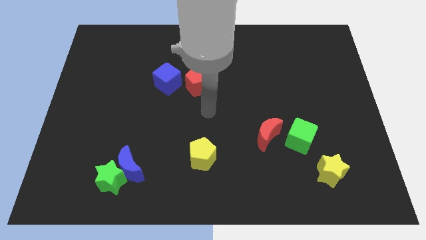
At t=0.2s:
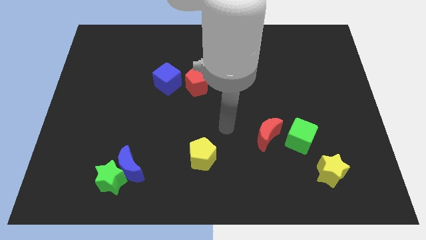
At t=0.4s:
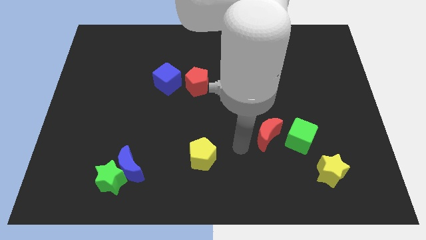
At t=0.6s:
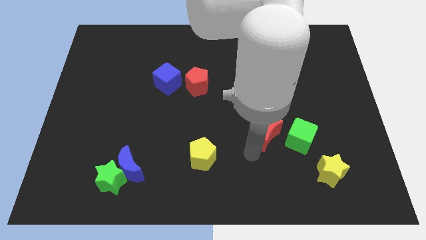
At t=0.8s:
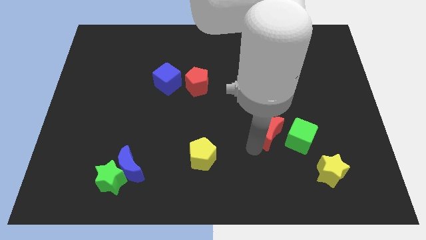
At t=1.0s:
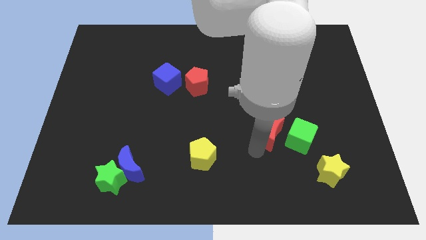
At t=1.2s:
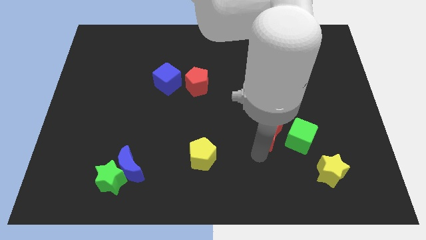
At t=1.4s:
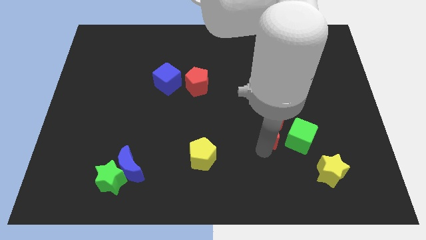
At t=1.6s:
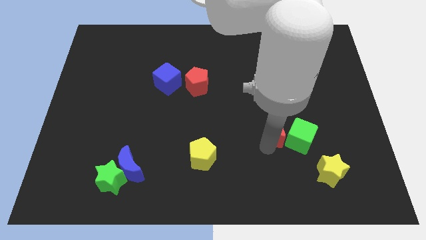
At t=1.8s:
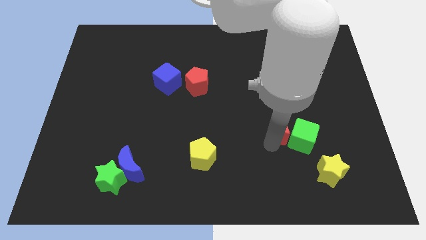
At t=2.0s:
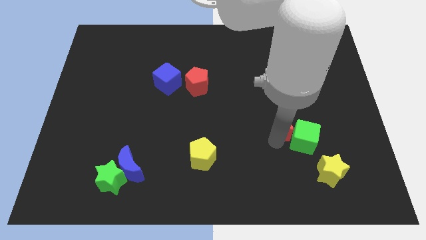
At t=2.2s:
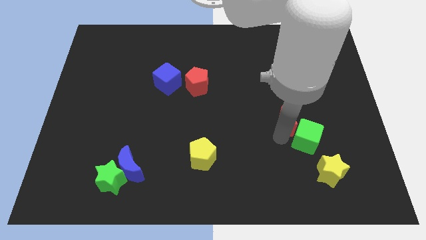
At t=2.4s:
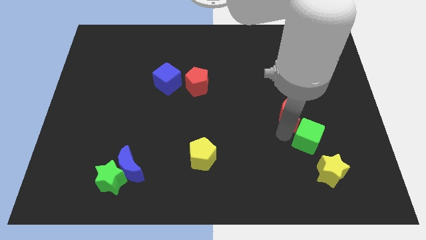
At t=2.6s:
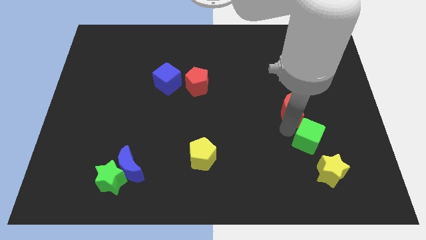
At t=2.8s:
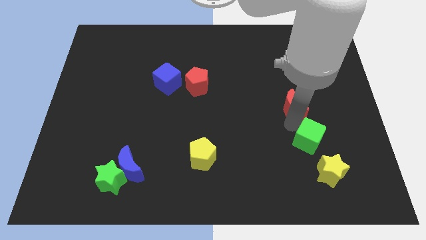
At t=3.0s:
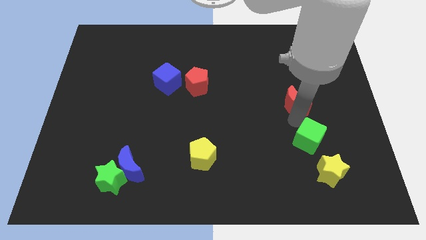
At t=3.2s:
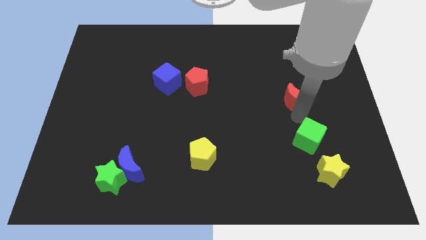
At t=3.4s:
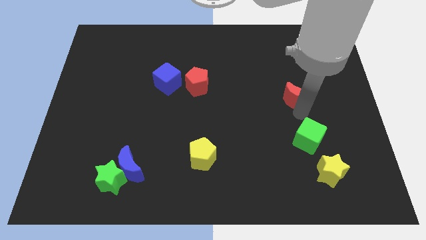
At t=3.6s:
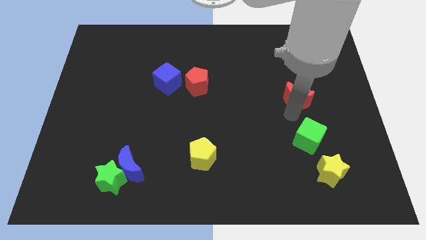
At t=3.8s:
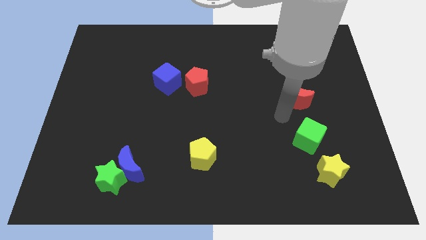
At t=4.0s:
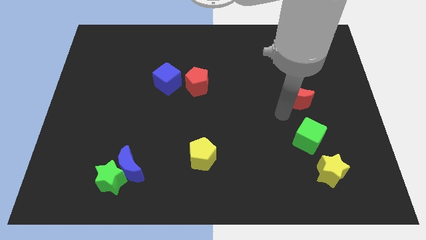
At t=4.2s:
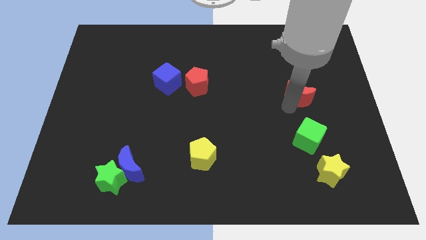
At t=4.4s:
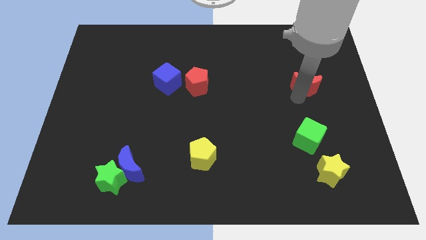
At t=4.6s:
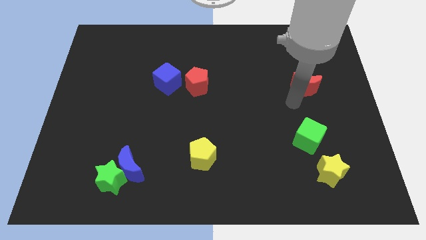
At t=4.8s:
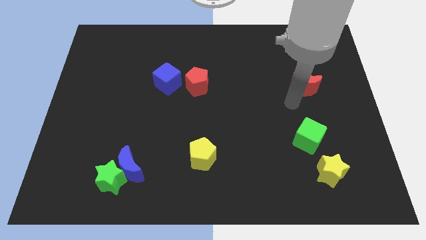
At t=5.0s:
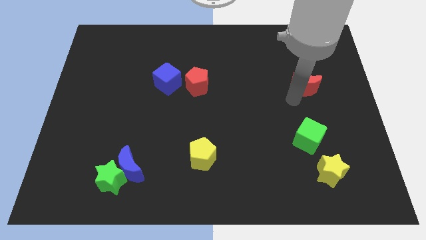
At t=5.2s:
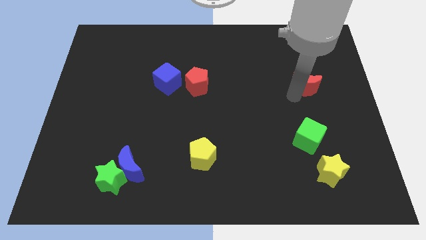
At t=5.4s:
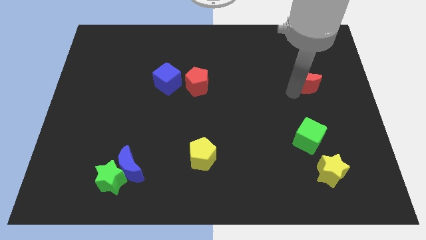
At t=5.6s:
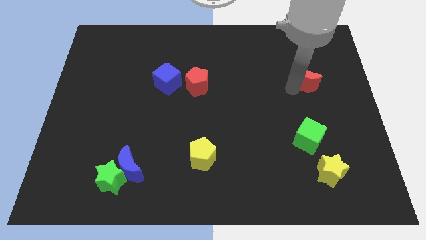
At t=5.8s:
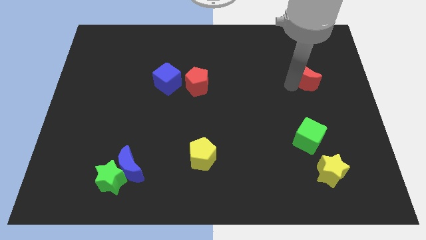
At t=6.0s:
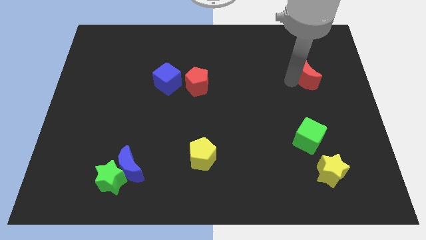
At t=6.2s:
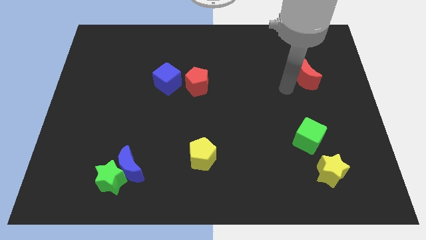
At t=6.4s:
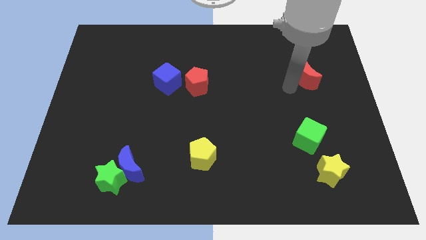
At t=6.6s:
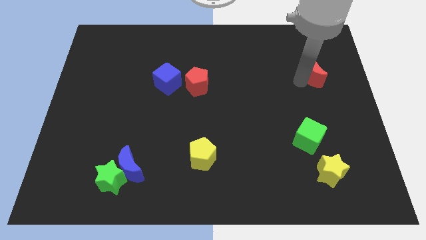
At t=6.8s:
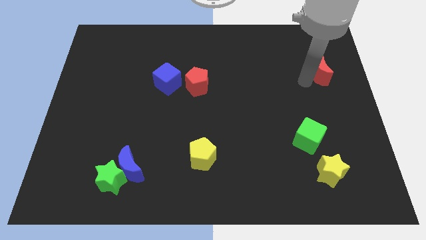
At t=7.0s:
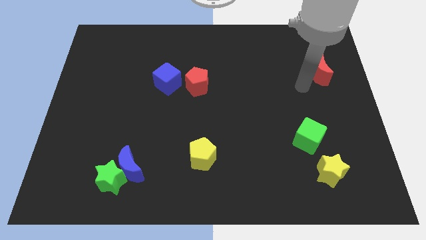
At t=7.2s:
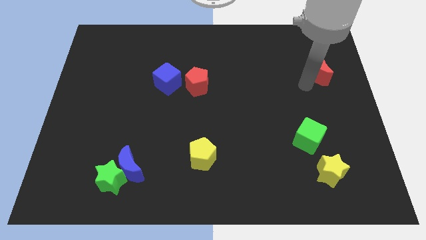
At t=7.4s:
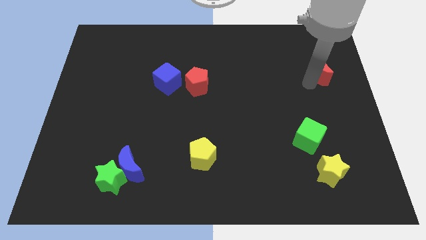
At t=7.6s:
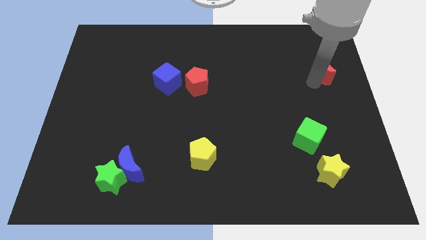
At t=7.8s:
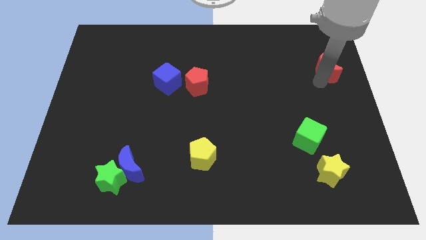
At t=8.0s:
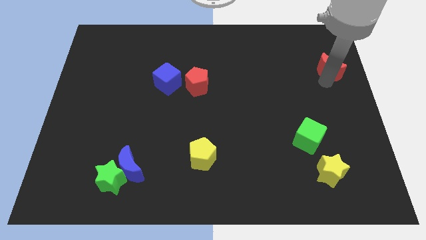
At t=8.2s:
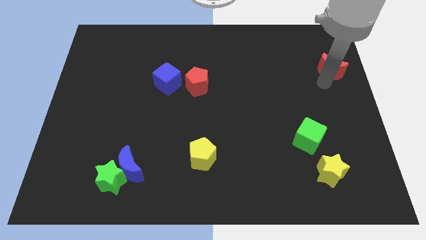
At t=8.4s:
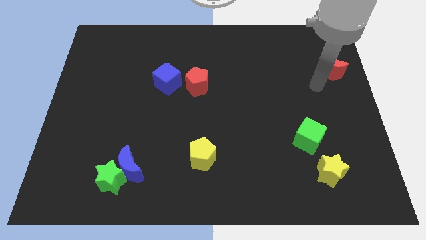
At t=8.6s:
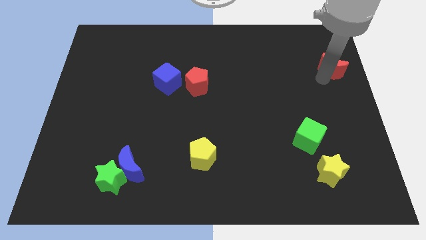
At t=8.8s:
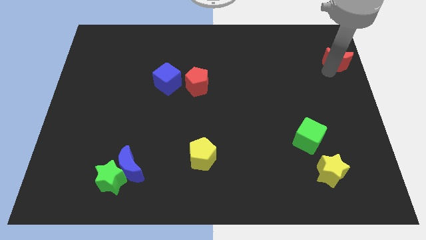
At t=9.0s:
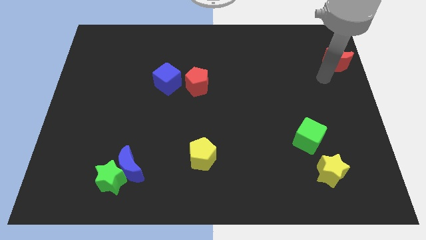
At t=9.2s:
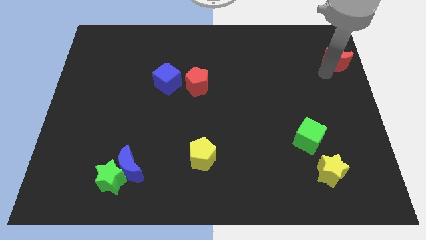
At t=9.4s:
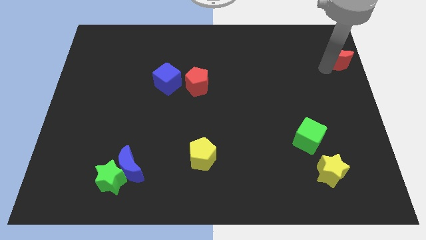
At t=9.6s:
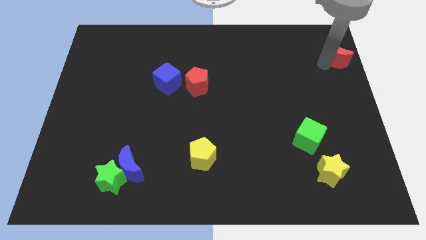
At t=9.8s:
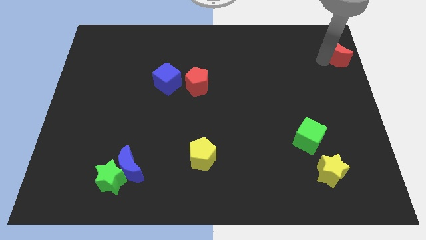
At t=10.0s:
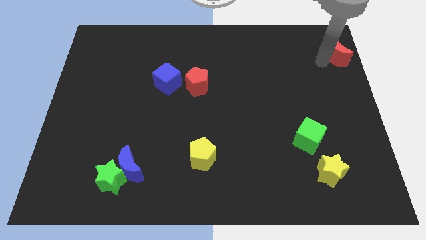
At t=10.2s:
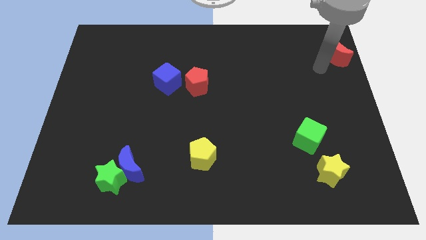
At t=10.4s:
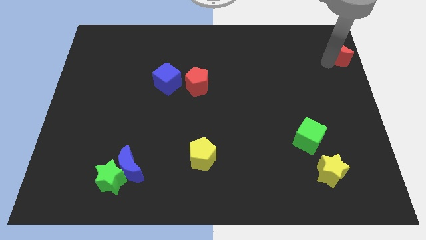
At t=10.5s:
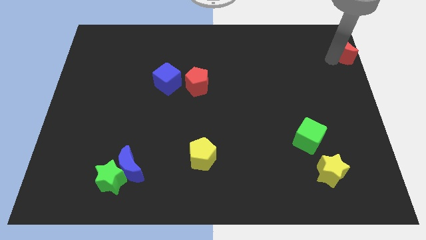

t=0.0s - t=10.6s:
slide the red moon to the upper right corner

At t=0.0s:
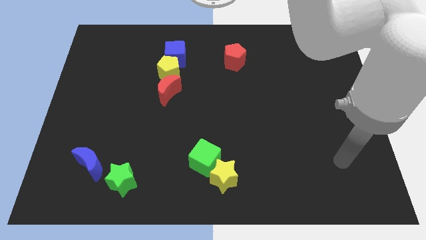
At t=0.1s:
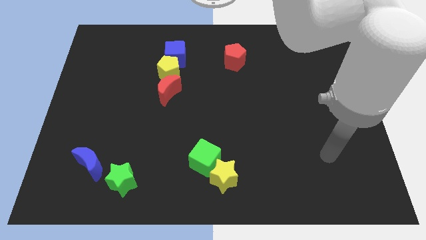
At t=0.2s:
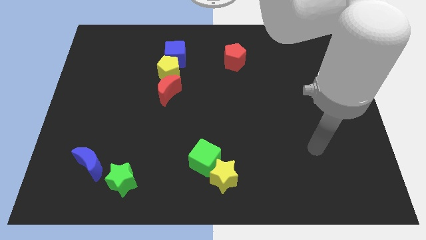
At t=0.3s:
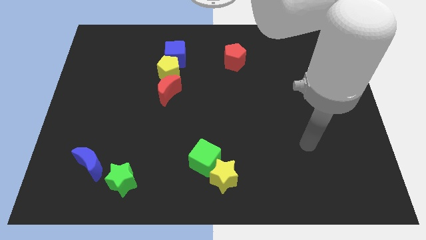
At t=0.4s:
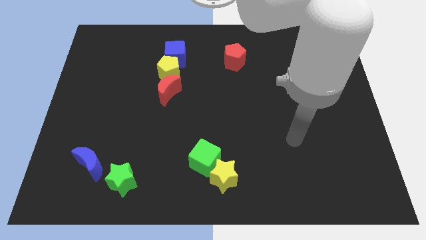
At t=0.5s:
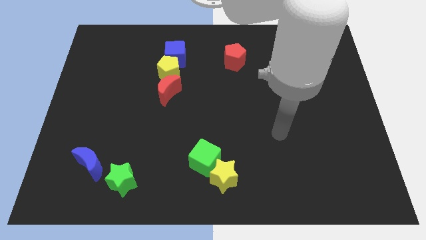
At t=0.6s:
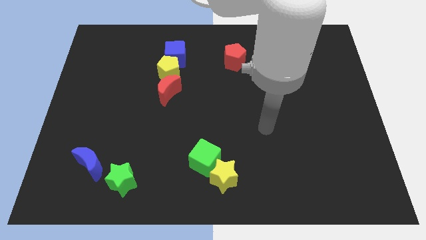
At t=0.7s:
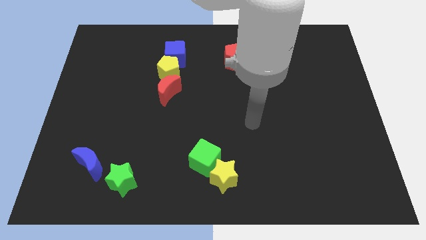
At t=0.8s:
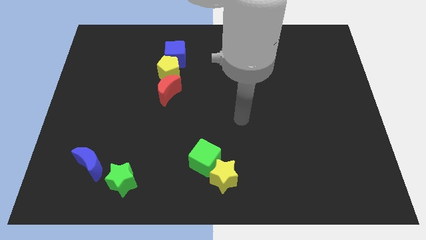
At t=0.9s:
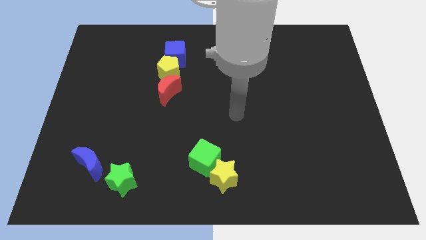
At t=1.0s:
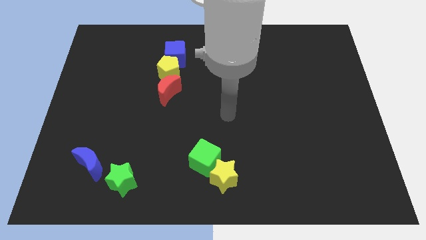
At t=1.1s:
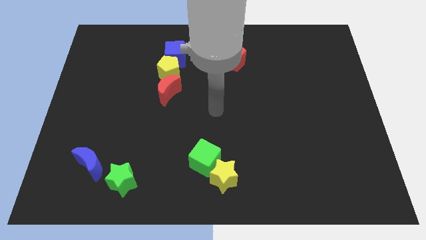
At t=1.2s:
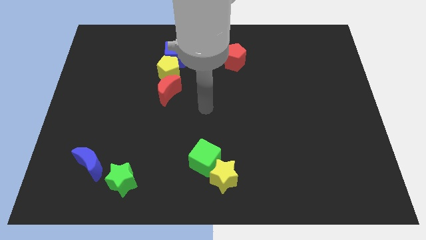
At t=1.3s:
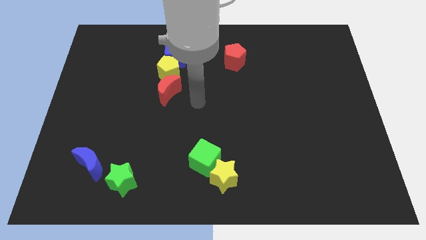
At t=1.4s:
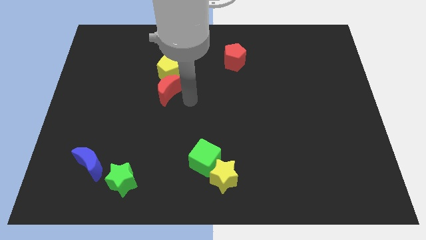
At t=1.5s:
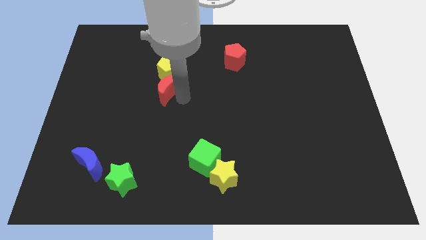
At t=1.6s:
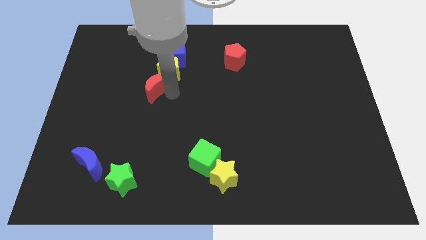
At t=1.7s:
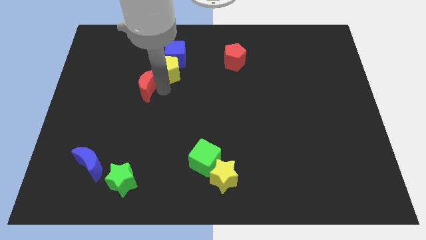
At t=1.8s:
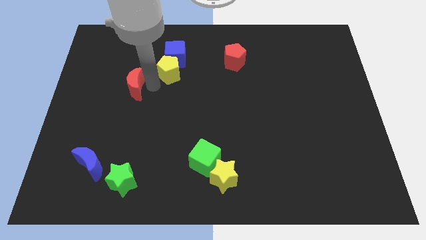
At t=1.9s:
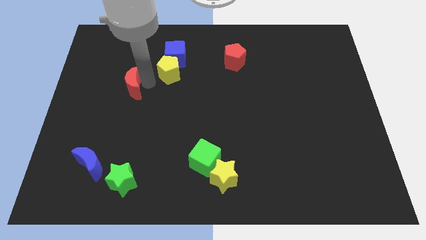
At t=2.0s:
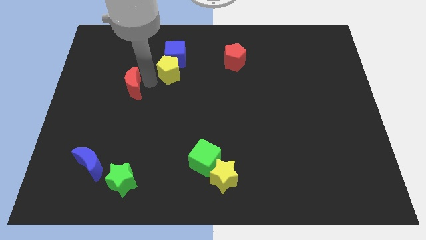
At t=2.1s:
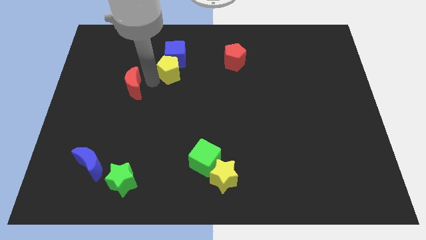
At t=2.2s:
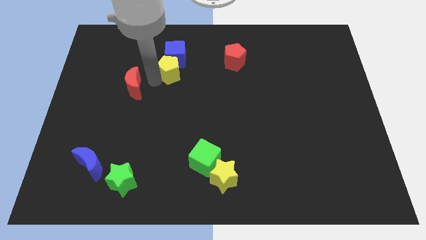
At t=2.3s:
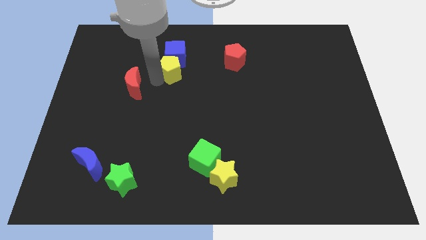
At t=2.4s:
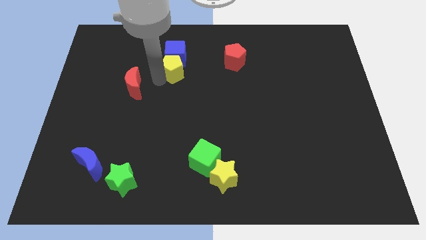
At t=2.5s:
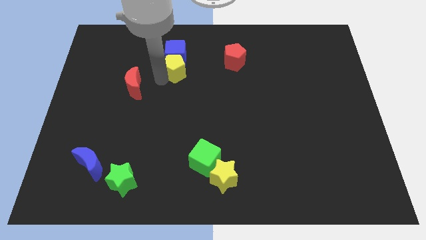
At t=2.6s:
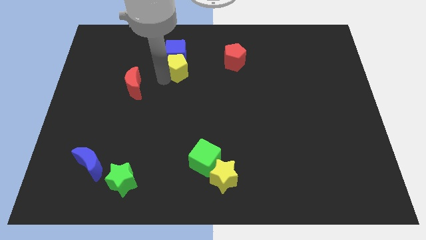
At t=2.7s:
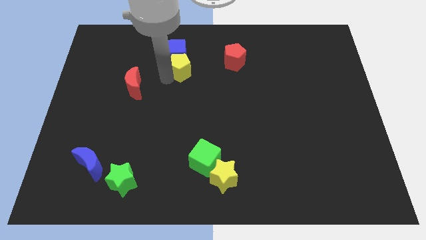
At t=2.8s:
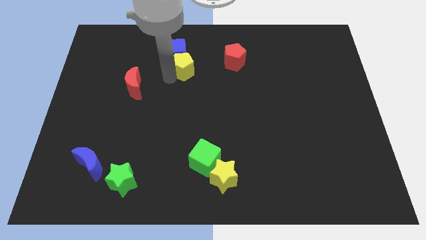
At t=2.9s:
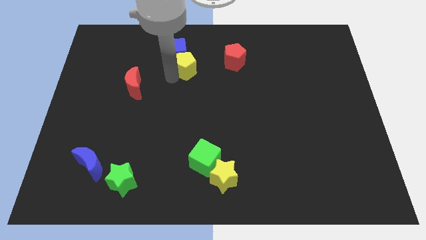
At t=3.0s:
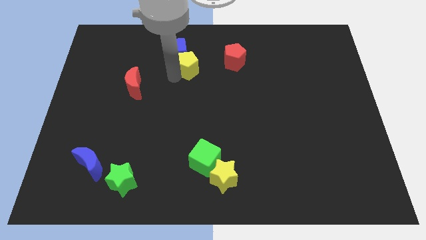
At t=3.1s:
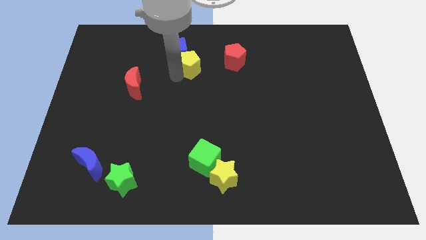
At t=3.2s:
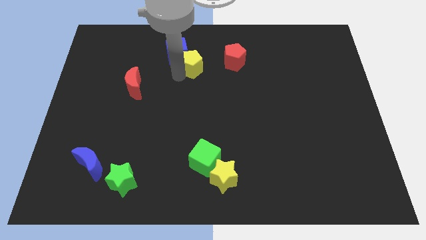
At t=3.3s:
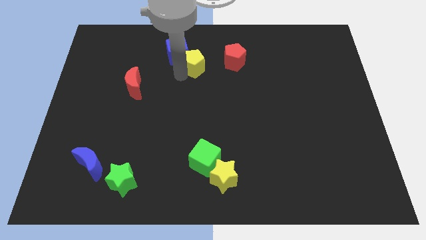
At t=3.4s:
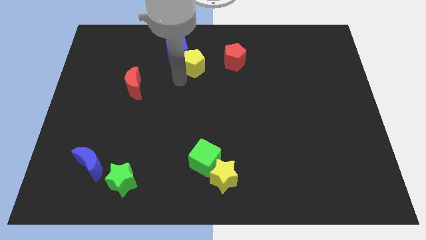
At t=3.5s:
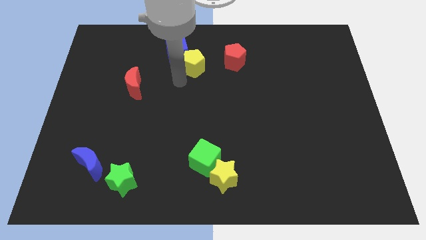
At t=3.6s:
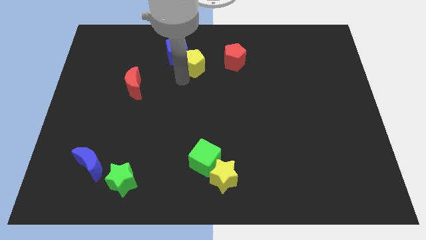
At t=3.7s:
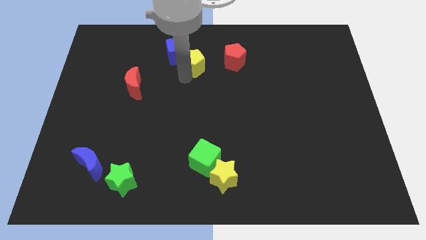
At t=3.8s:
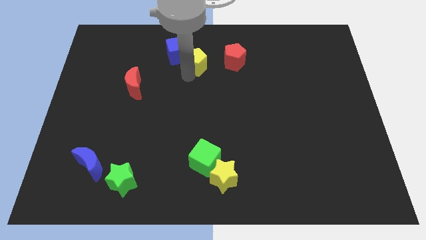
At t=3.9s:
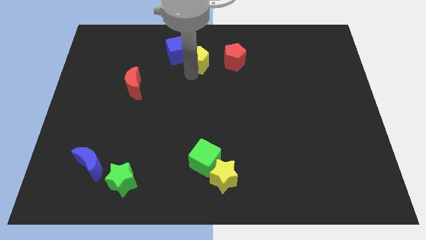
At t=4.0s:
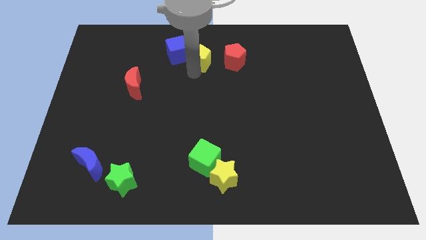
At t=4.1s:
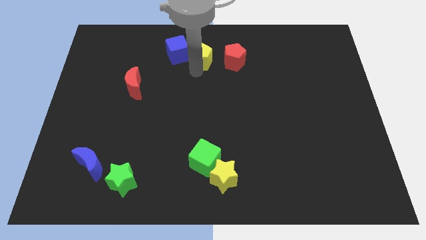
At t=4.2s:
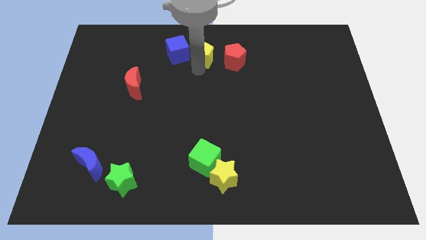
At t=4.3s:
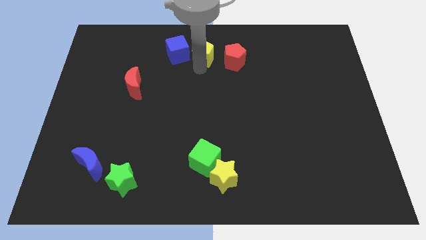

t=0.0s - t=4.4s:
put the yellow pentagon to the top
